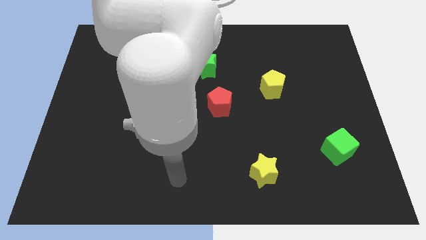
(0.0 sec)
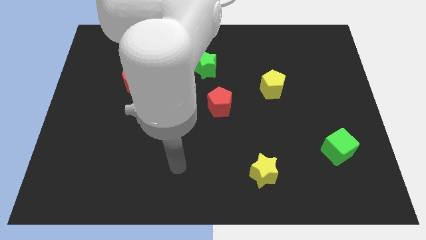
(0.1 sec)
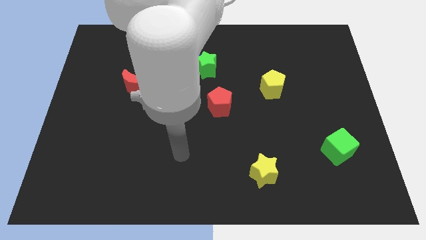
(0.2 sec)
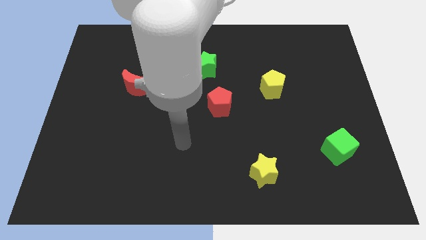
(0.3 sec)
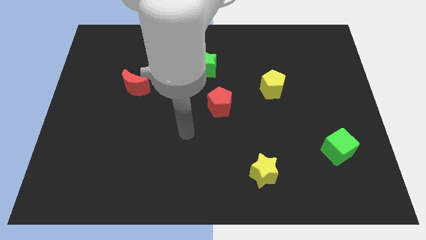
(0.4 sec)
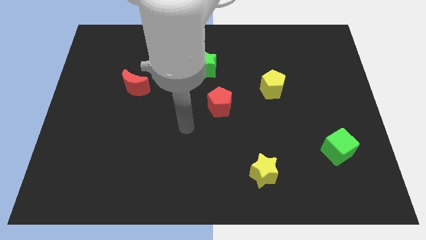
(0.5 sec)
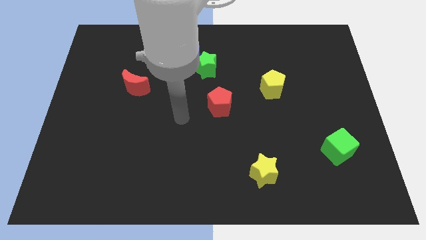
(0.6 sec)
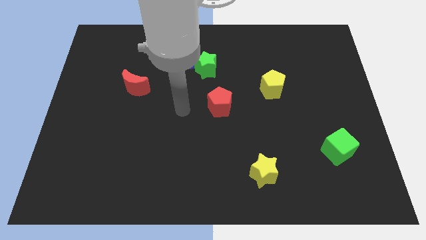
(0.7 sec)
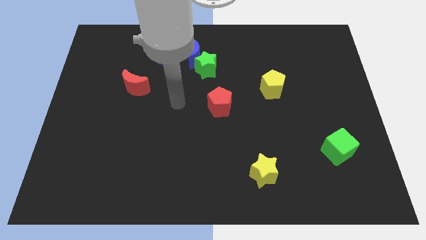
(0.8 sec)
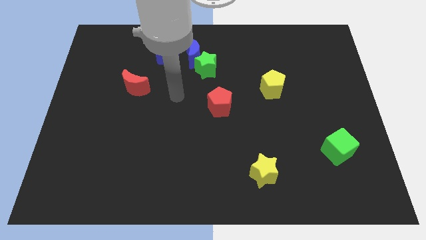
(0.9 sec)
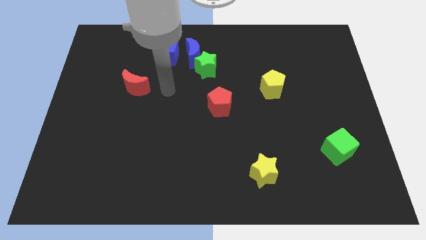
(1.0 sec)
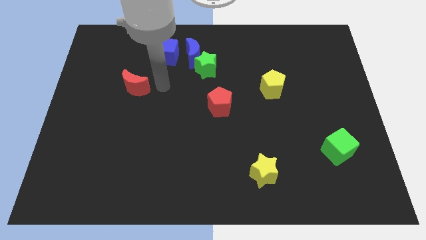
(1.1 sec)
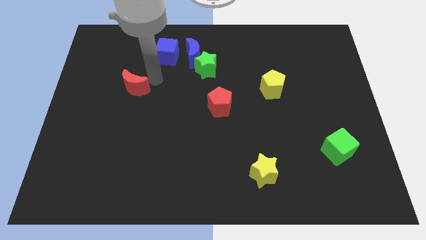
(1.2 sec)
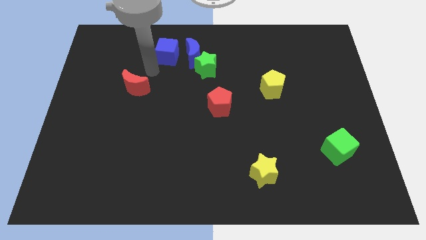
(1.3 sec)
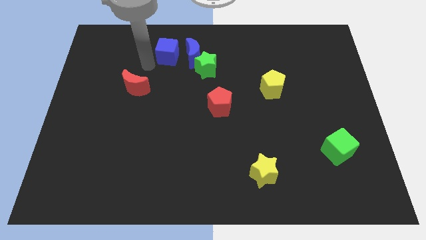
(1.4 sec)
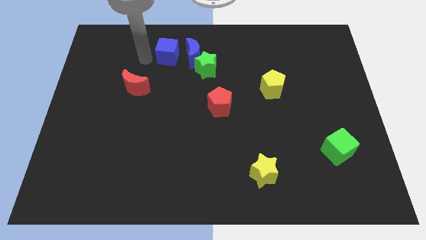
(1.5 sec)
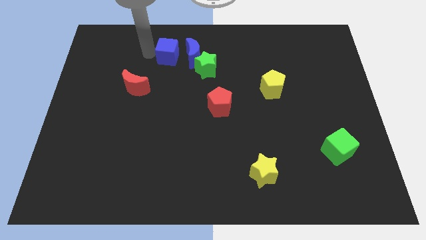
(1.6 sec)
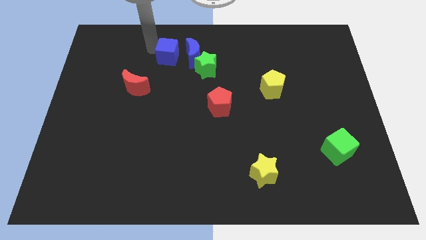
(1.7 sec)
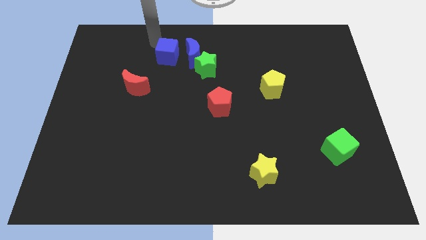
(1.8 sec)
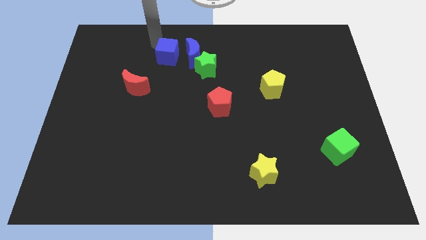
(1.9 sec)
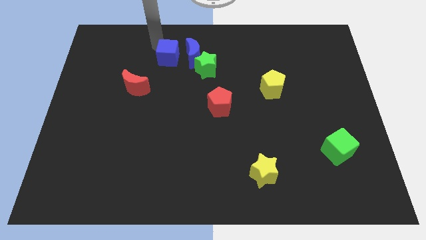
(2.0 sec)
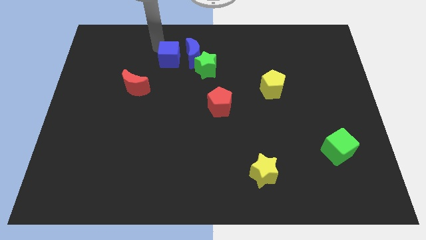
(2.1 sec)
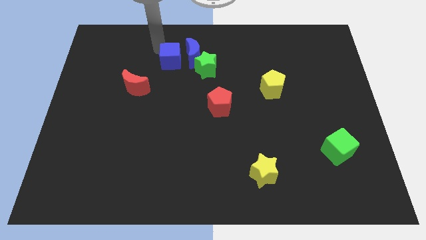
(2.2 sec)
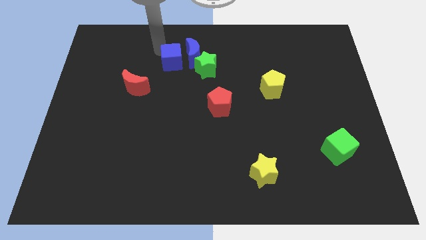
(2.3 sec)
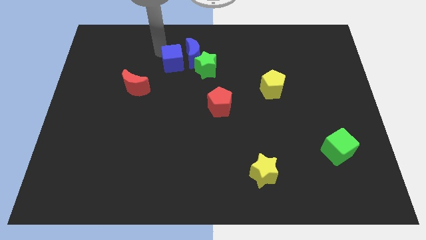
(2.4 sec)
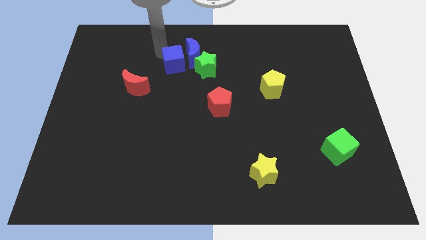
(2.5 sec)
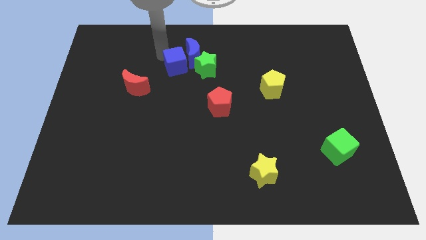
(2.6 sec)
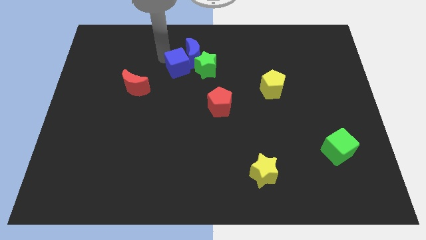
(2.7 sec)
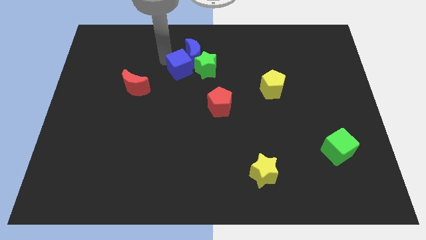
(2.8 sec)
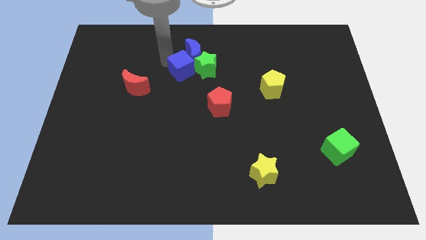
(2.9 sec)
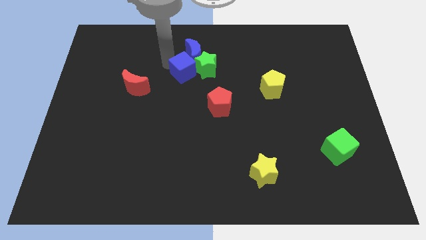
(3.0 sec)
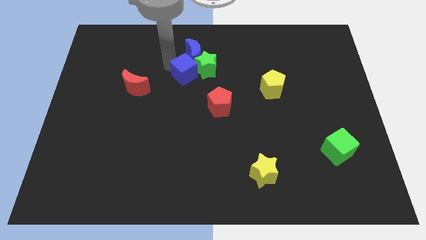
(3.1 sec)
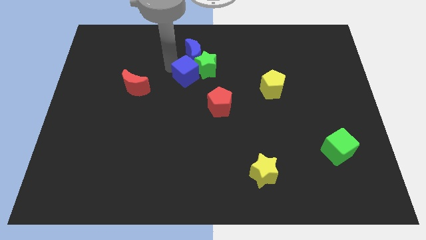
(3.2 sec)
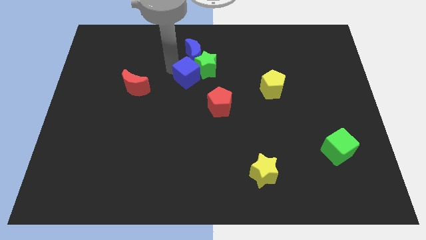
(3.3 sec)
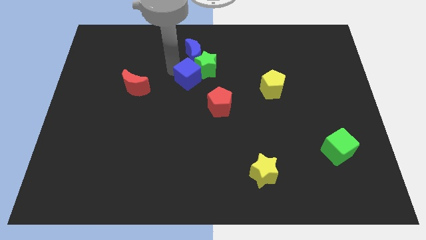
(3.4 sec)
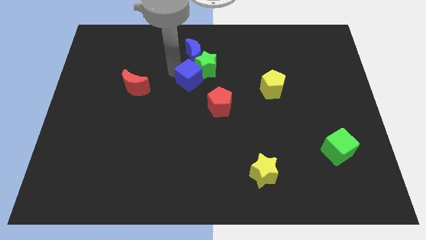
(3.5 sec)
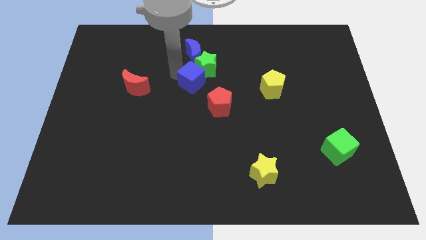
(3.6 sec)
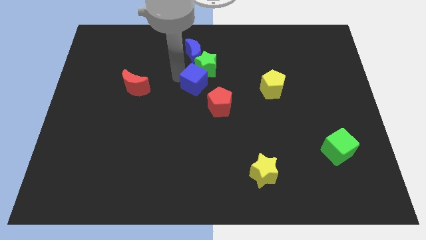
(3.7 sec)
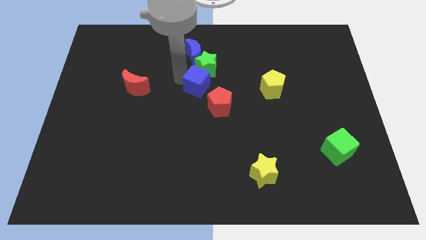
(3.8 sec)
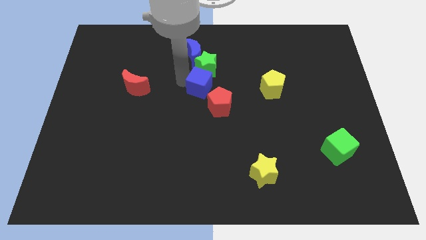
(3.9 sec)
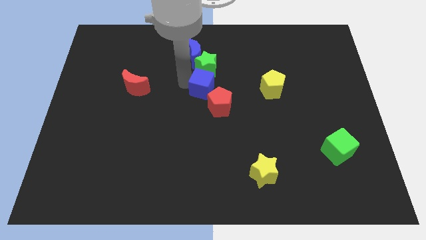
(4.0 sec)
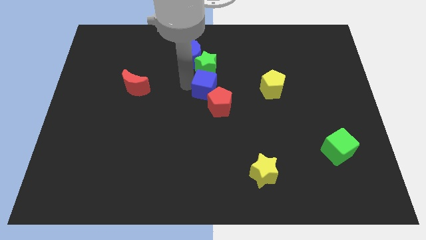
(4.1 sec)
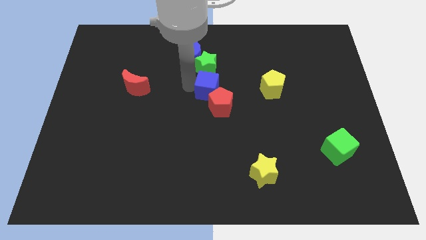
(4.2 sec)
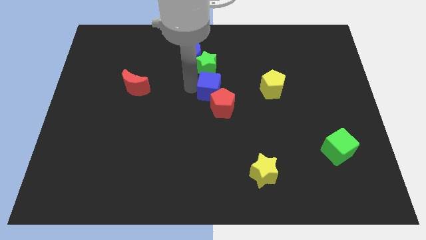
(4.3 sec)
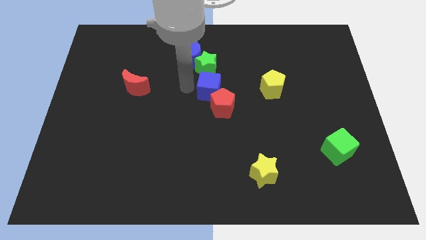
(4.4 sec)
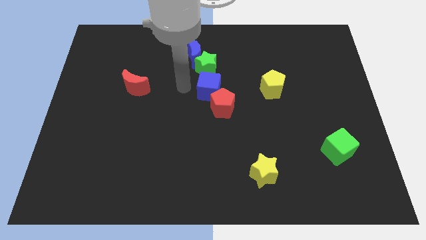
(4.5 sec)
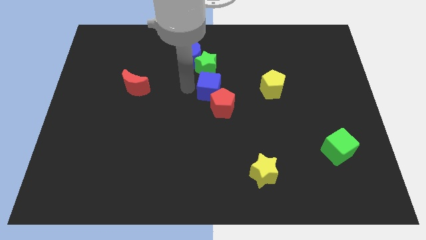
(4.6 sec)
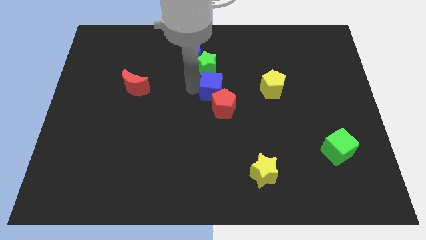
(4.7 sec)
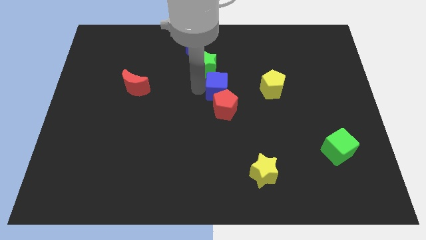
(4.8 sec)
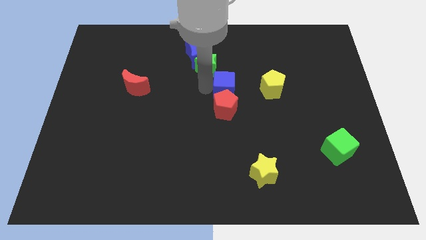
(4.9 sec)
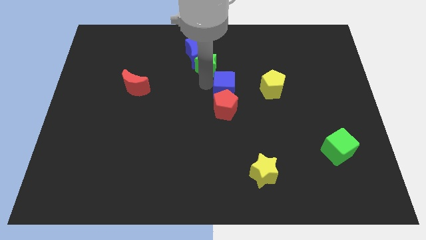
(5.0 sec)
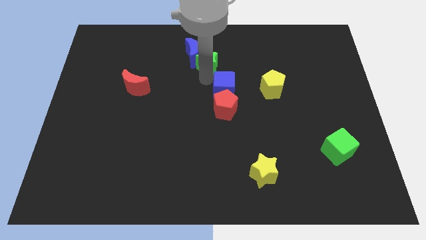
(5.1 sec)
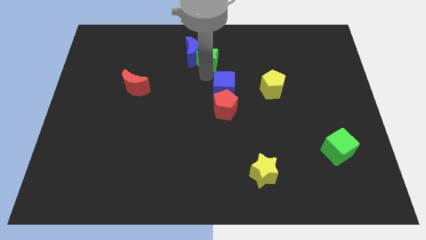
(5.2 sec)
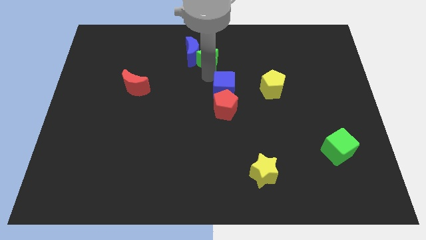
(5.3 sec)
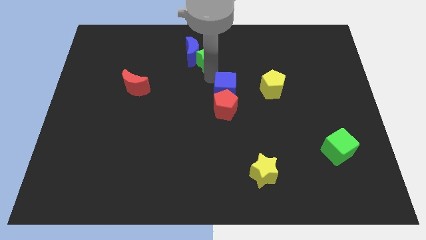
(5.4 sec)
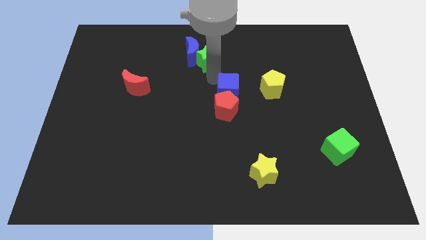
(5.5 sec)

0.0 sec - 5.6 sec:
slide the blue cube downwards and then to the right

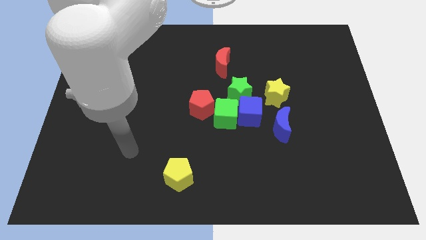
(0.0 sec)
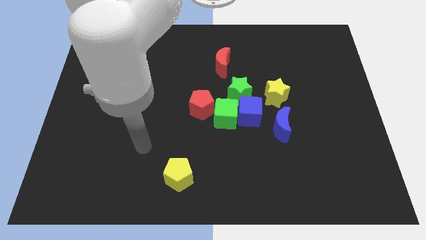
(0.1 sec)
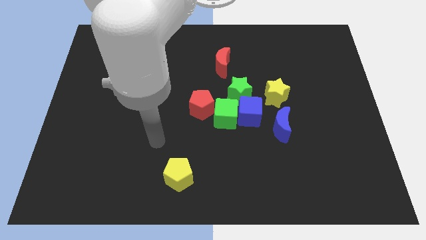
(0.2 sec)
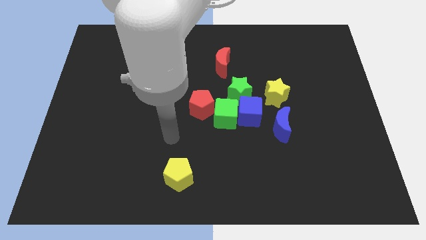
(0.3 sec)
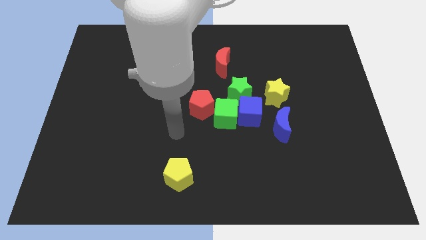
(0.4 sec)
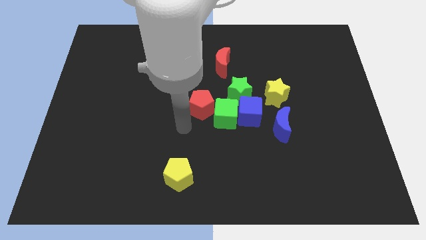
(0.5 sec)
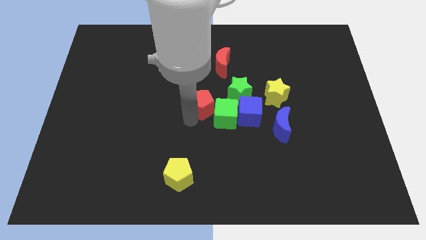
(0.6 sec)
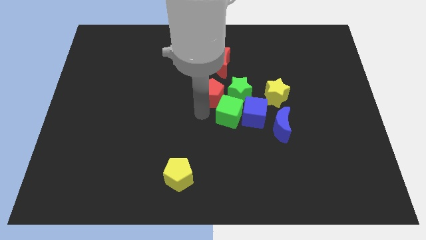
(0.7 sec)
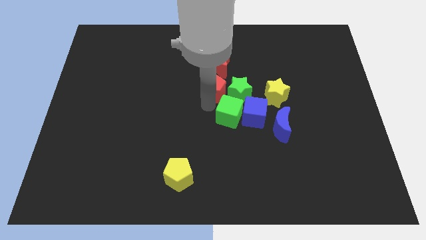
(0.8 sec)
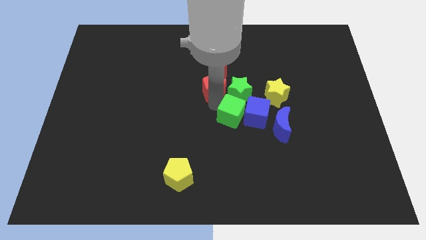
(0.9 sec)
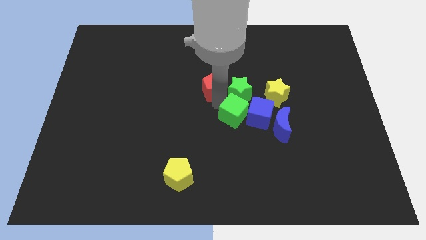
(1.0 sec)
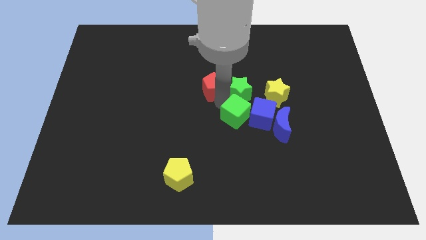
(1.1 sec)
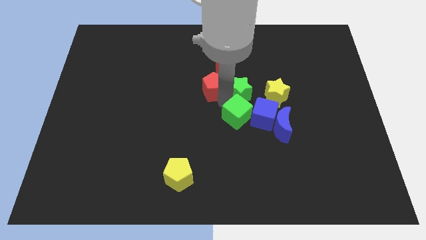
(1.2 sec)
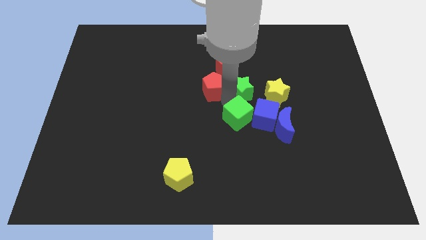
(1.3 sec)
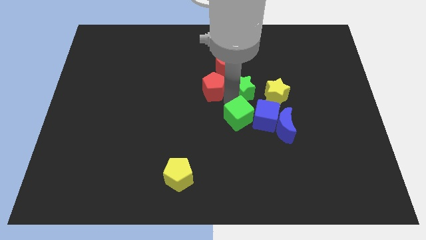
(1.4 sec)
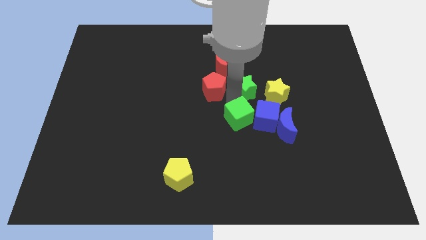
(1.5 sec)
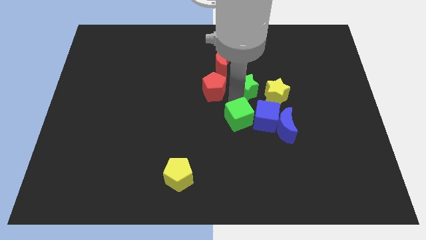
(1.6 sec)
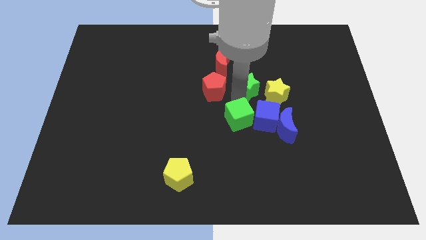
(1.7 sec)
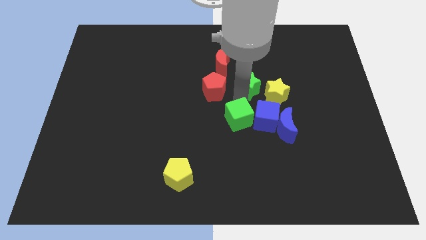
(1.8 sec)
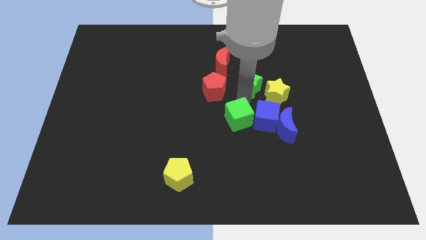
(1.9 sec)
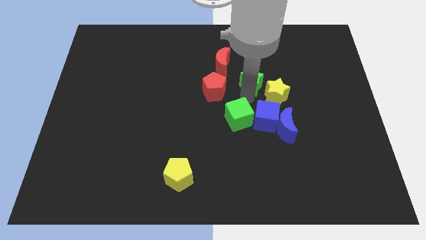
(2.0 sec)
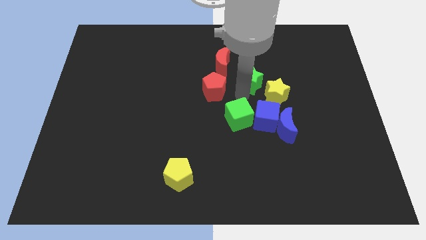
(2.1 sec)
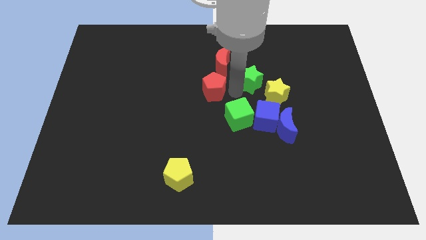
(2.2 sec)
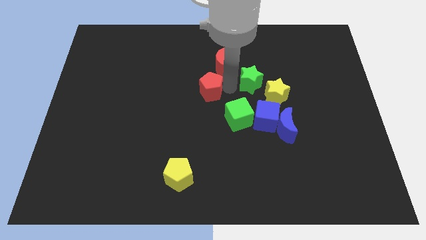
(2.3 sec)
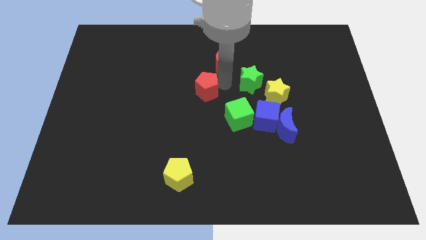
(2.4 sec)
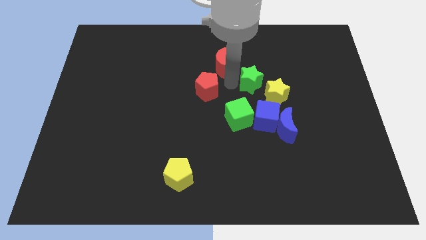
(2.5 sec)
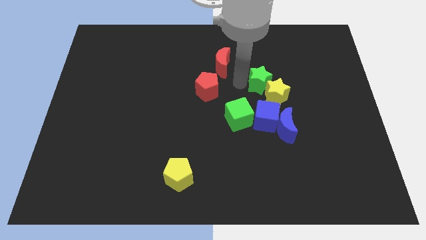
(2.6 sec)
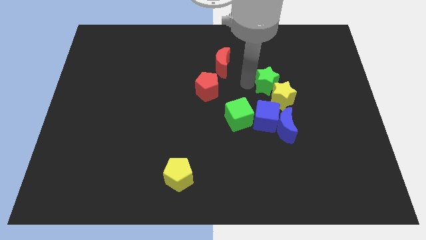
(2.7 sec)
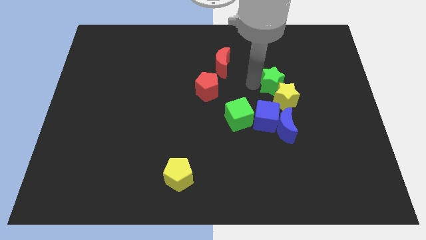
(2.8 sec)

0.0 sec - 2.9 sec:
slightly move the green star to the right
